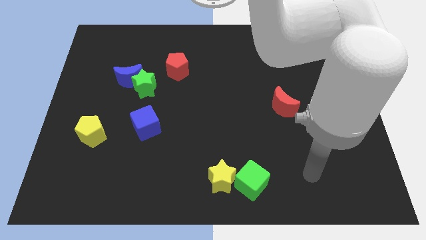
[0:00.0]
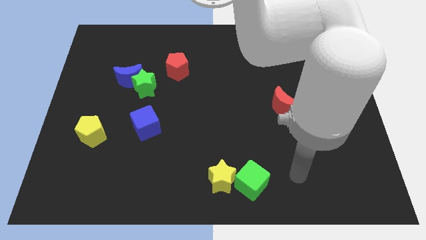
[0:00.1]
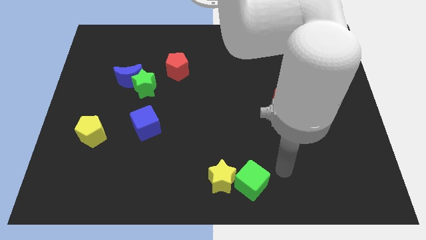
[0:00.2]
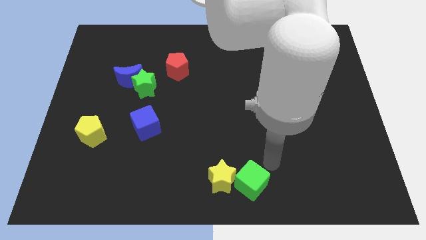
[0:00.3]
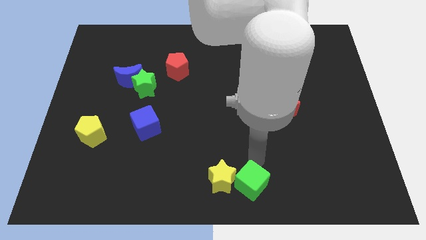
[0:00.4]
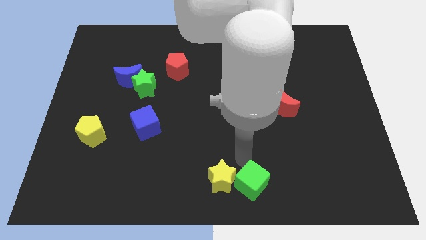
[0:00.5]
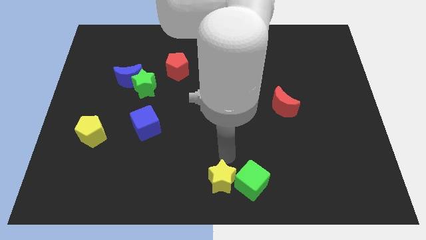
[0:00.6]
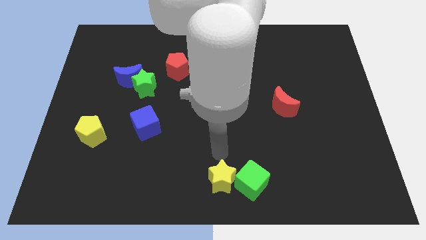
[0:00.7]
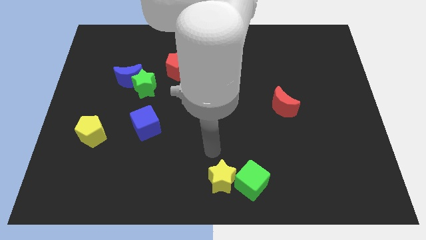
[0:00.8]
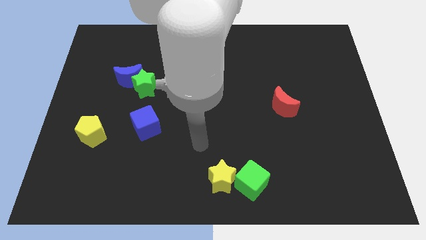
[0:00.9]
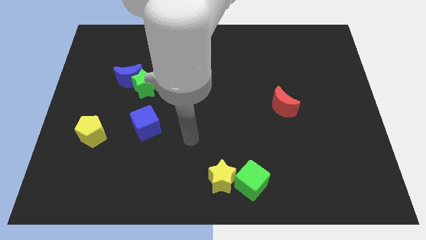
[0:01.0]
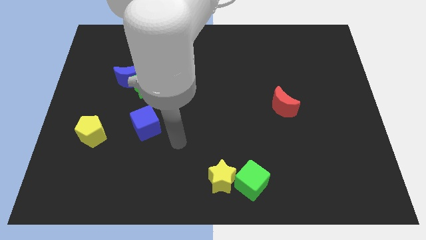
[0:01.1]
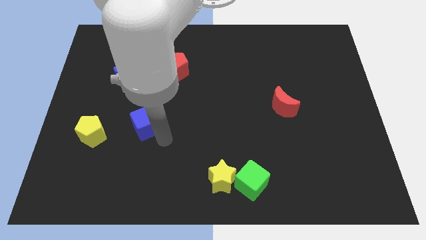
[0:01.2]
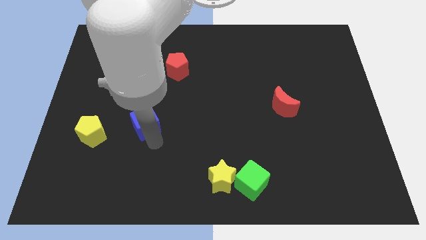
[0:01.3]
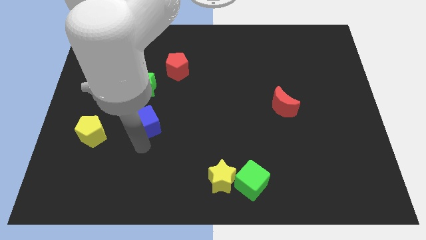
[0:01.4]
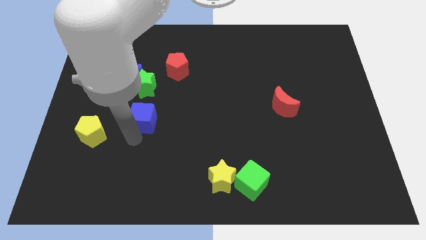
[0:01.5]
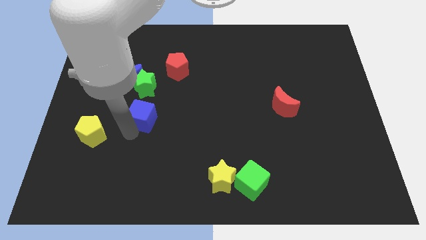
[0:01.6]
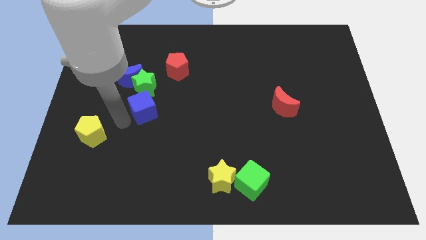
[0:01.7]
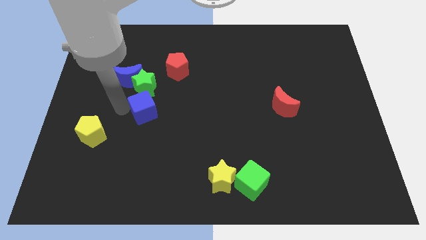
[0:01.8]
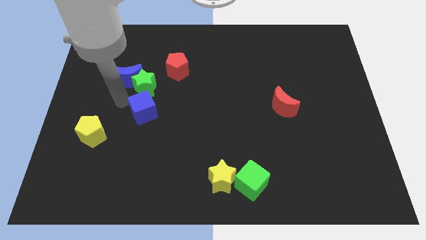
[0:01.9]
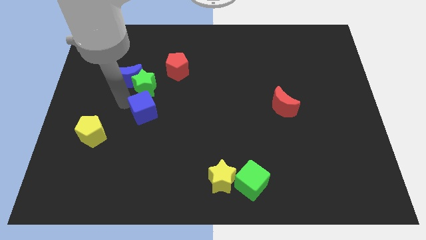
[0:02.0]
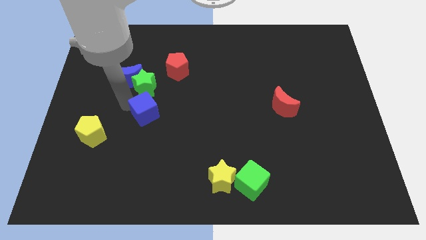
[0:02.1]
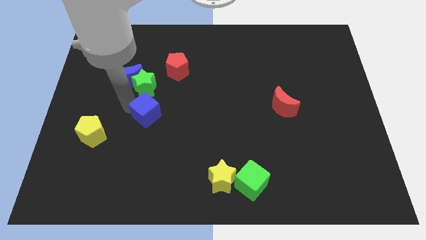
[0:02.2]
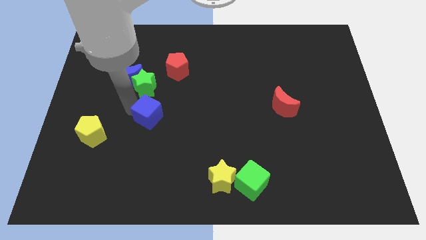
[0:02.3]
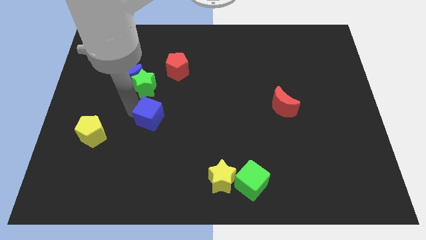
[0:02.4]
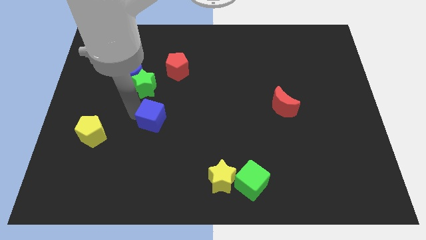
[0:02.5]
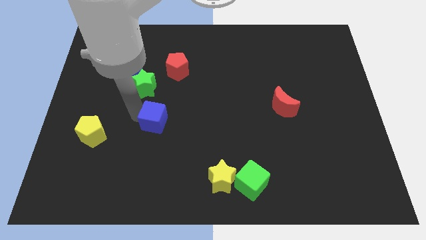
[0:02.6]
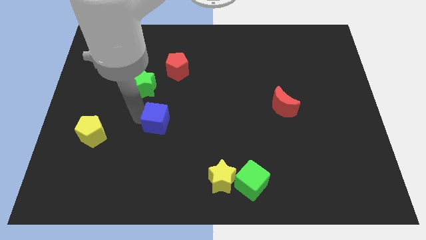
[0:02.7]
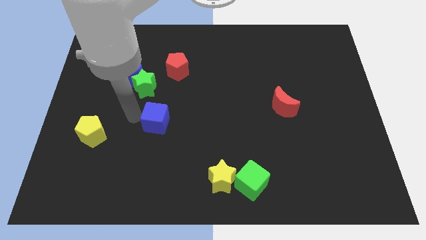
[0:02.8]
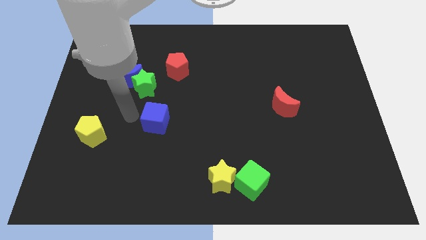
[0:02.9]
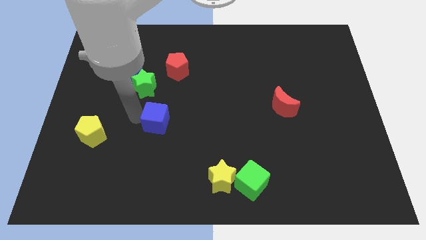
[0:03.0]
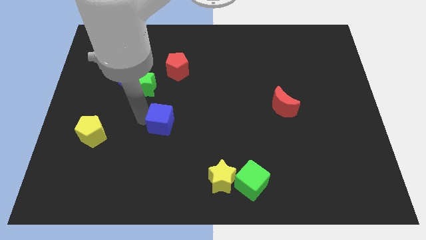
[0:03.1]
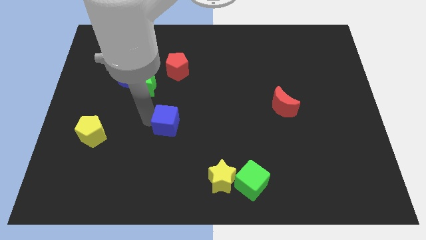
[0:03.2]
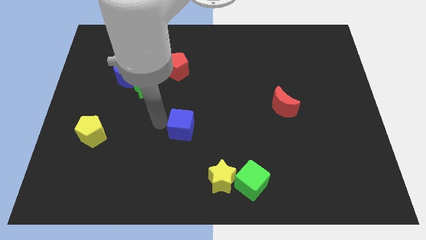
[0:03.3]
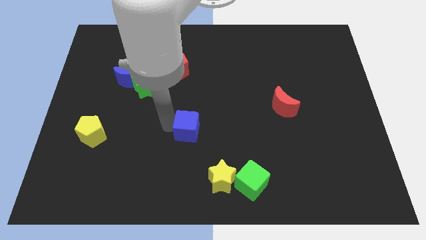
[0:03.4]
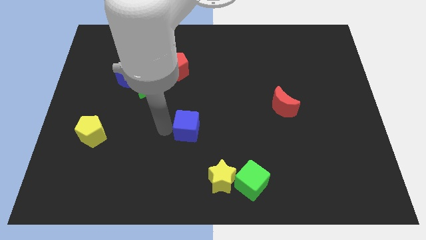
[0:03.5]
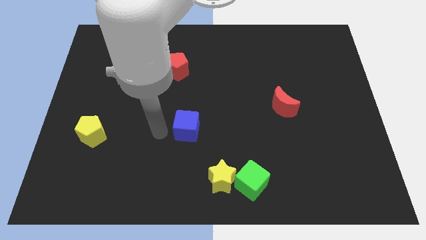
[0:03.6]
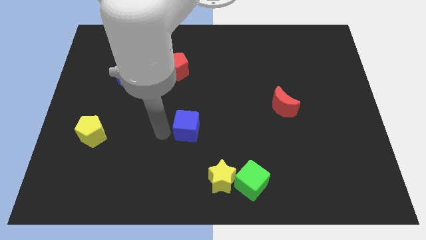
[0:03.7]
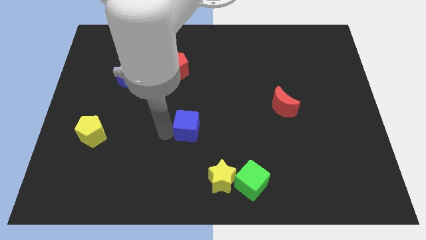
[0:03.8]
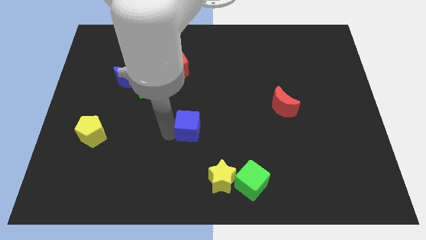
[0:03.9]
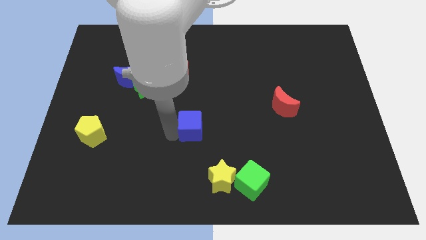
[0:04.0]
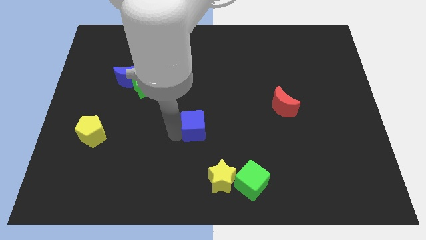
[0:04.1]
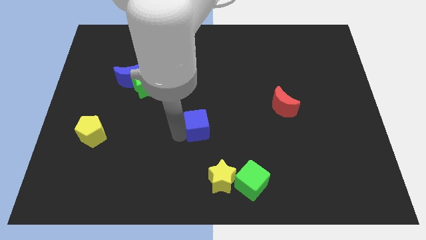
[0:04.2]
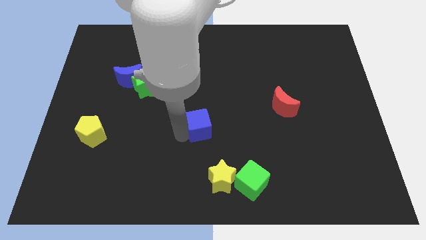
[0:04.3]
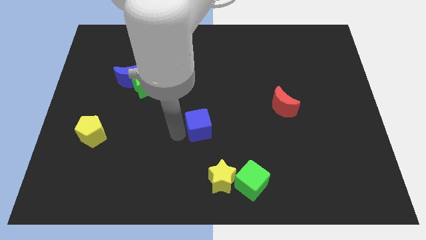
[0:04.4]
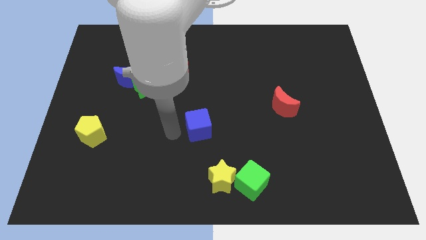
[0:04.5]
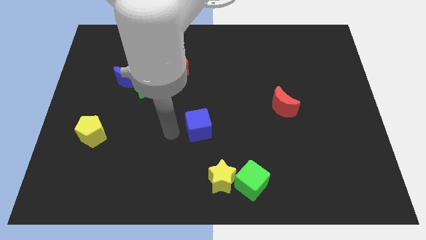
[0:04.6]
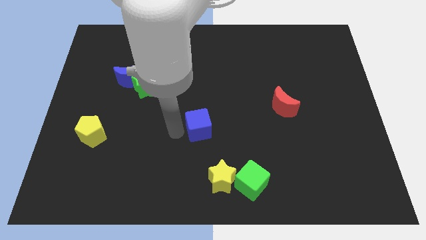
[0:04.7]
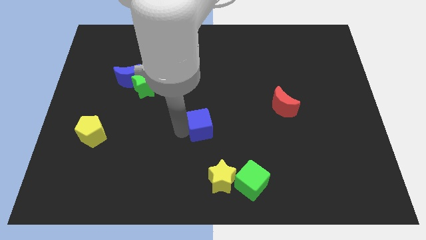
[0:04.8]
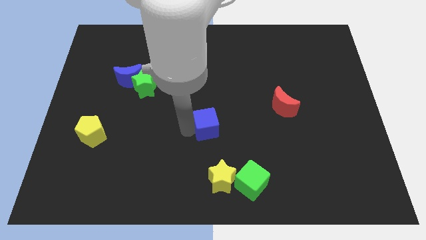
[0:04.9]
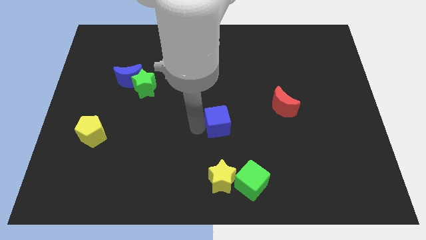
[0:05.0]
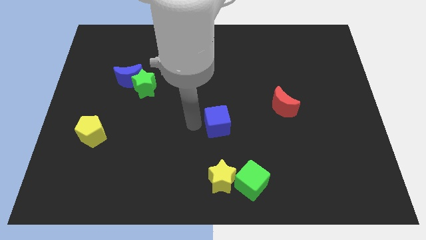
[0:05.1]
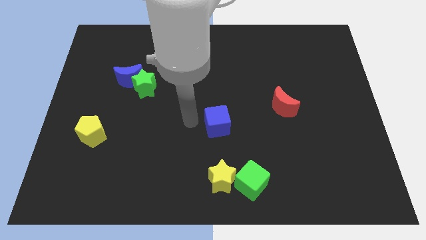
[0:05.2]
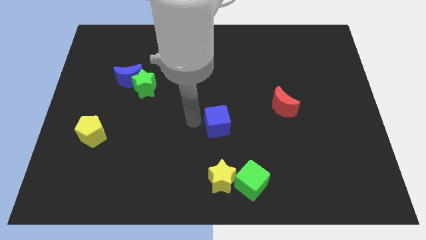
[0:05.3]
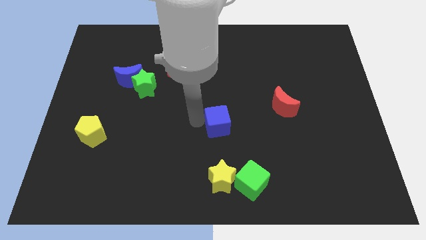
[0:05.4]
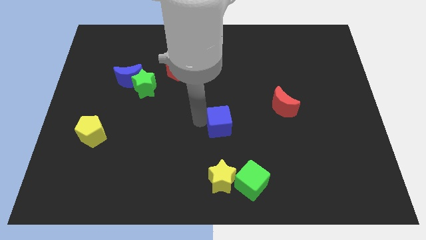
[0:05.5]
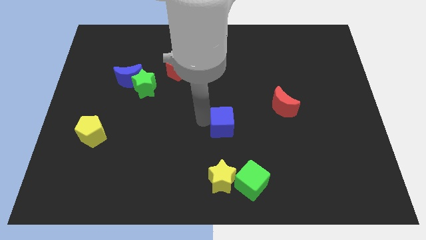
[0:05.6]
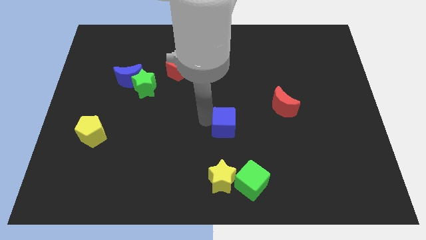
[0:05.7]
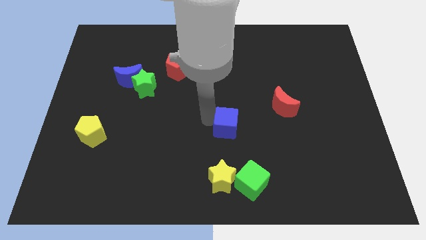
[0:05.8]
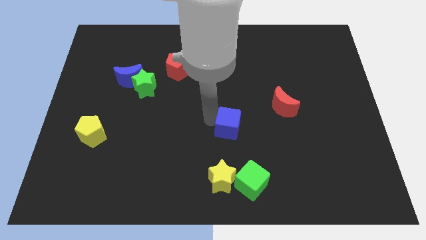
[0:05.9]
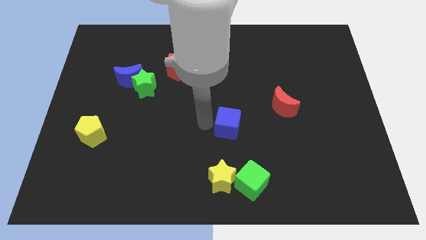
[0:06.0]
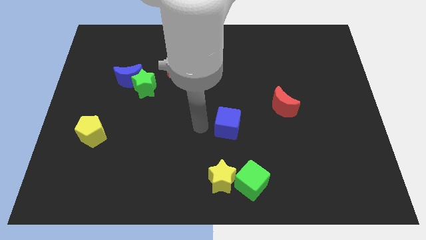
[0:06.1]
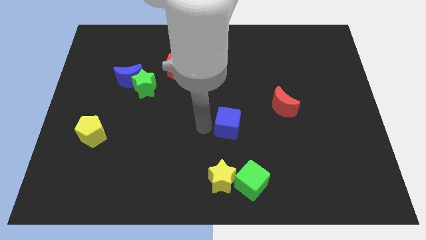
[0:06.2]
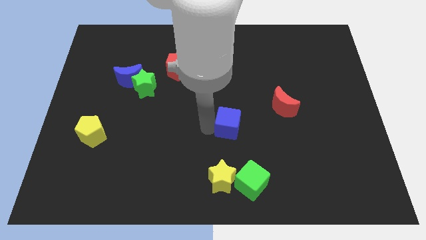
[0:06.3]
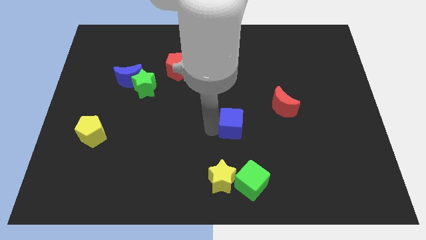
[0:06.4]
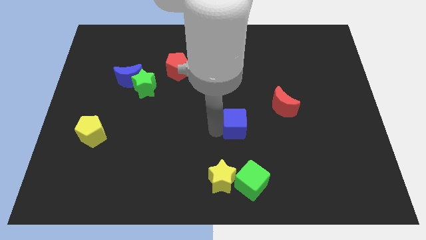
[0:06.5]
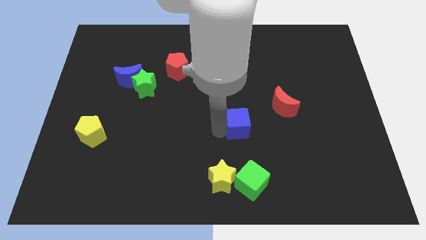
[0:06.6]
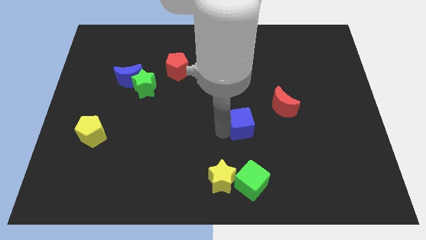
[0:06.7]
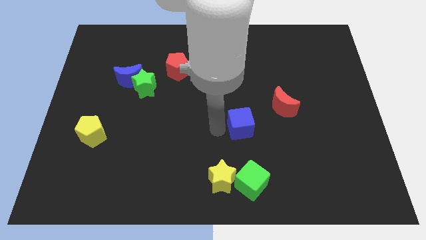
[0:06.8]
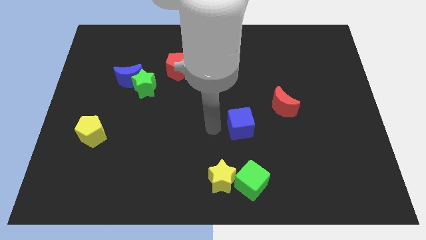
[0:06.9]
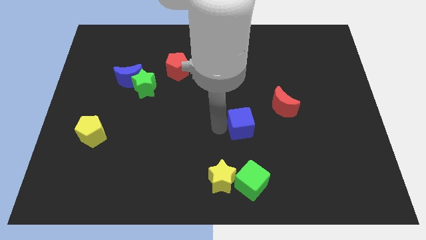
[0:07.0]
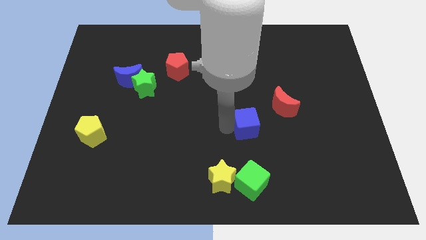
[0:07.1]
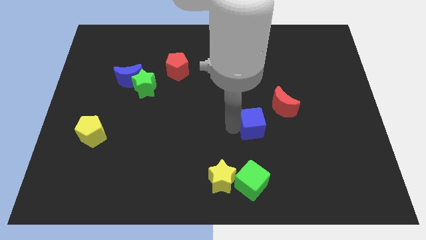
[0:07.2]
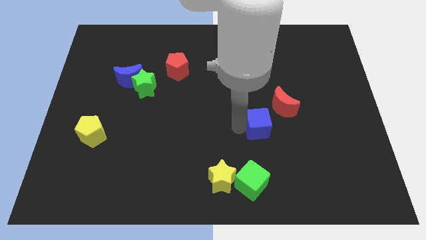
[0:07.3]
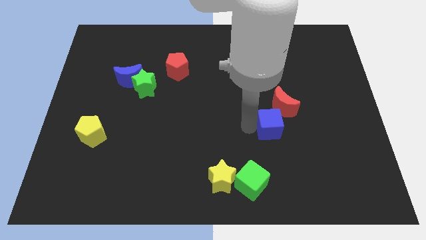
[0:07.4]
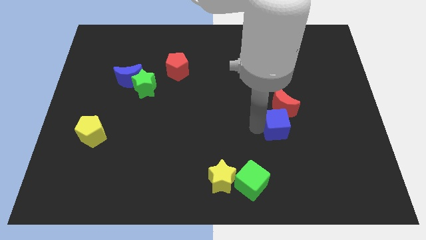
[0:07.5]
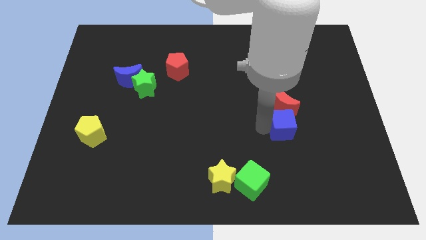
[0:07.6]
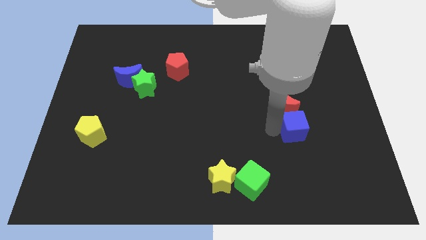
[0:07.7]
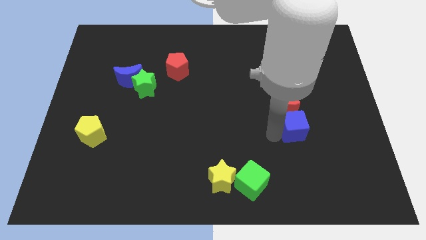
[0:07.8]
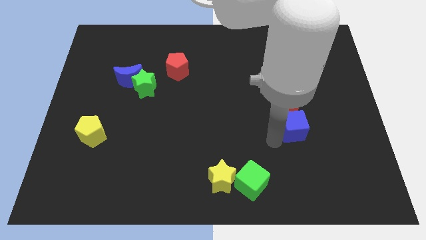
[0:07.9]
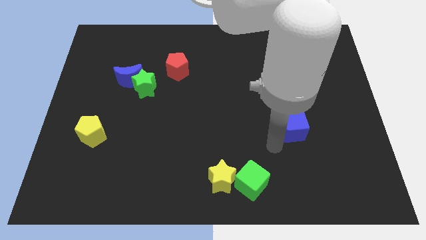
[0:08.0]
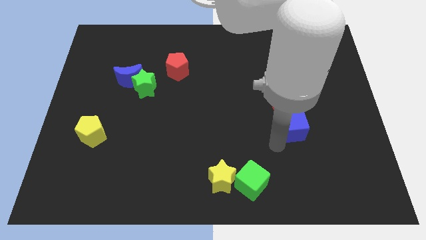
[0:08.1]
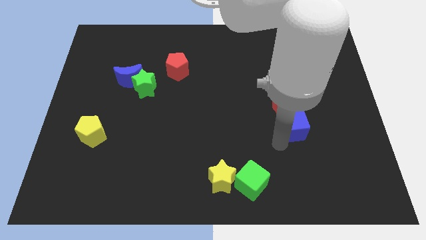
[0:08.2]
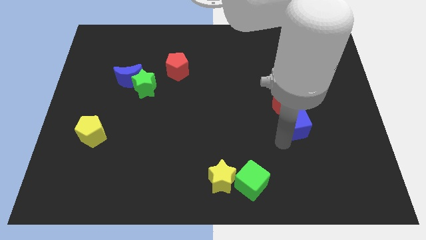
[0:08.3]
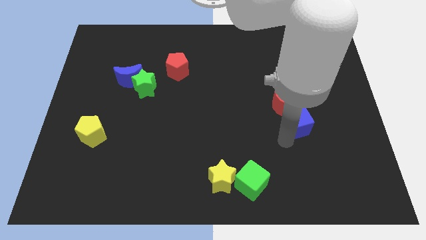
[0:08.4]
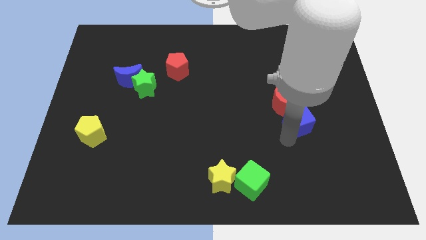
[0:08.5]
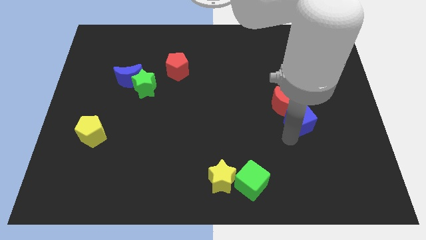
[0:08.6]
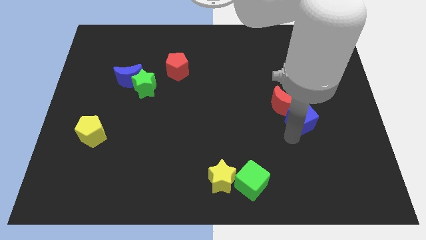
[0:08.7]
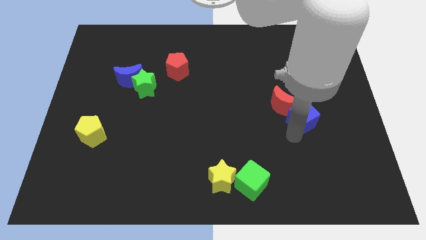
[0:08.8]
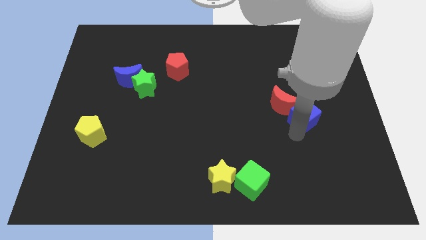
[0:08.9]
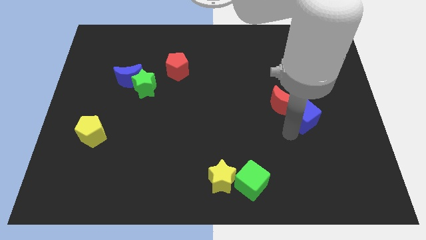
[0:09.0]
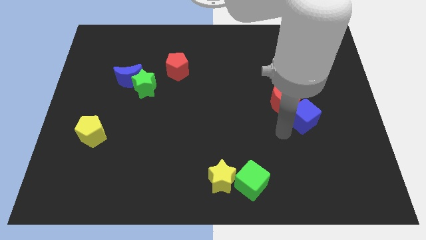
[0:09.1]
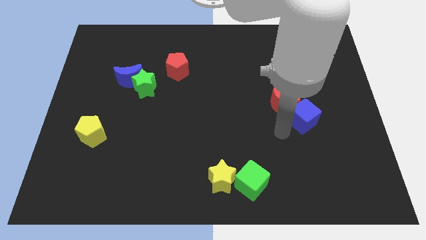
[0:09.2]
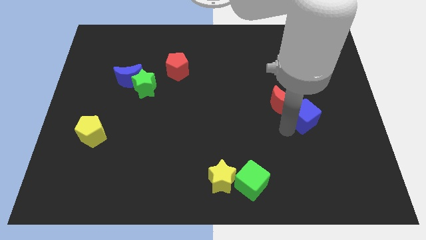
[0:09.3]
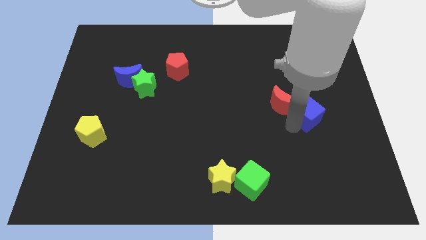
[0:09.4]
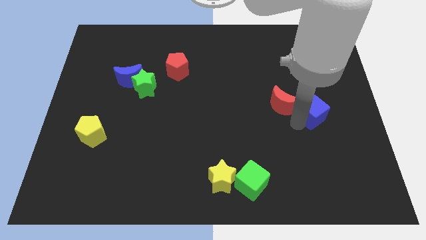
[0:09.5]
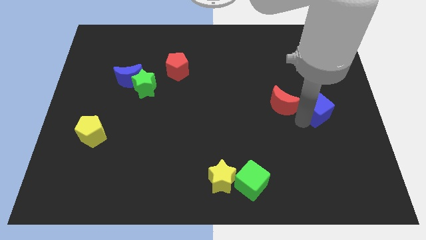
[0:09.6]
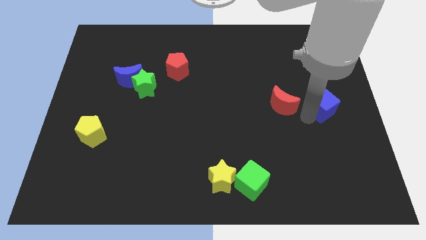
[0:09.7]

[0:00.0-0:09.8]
move the blue cube to the center right
